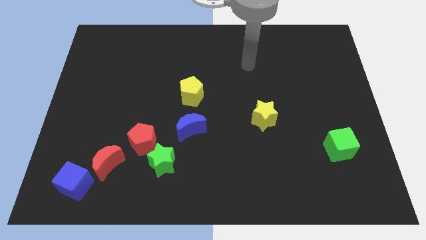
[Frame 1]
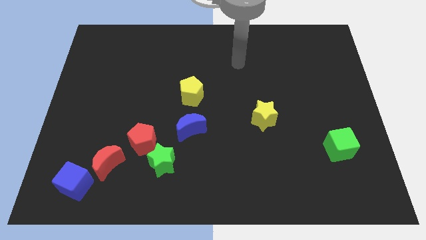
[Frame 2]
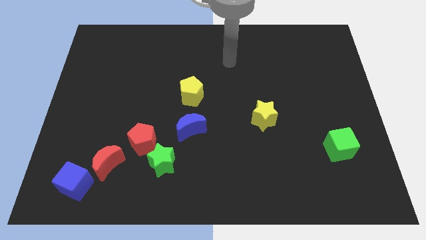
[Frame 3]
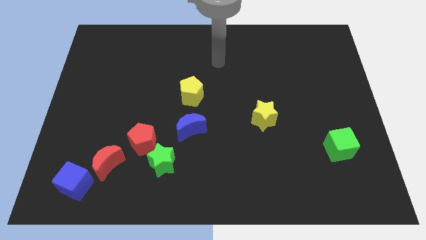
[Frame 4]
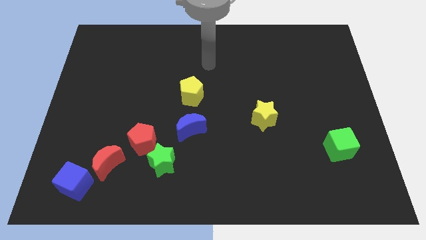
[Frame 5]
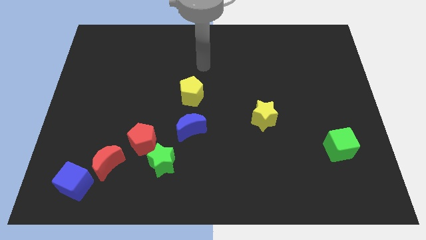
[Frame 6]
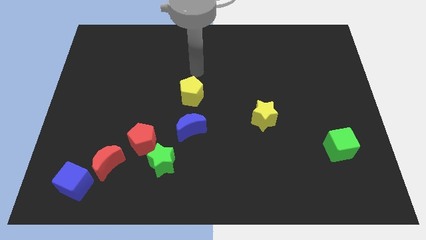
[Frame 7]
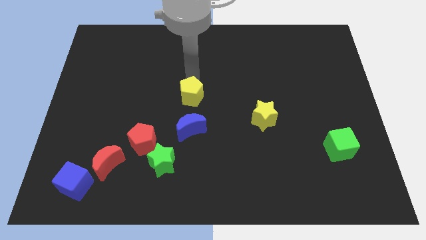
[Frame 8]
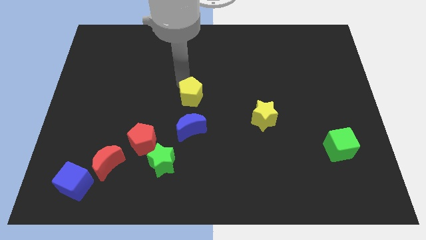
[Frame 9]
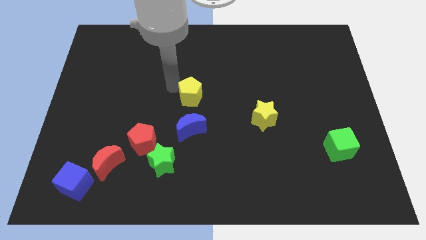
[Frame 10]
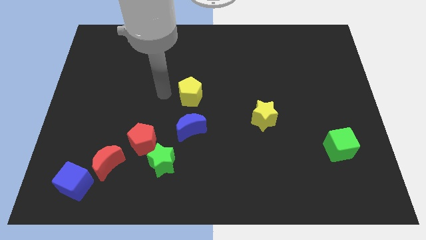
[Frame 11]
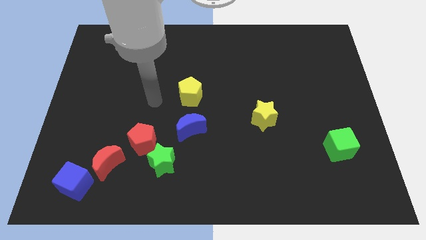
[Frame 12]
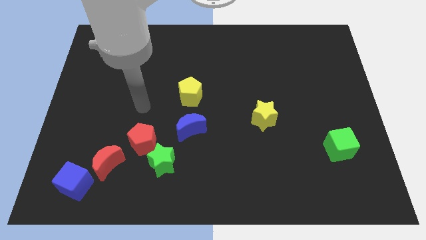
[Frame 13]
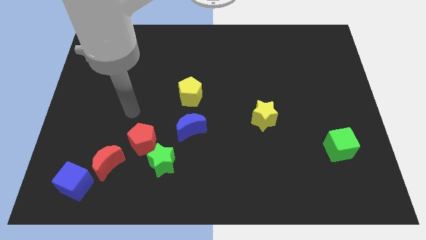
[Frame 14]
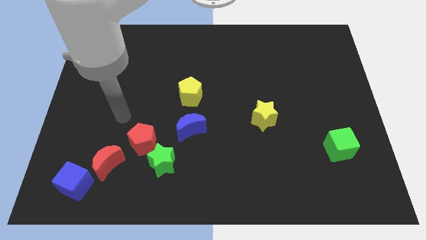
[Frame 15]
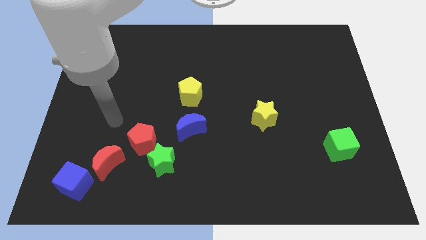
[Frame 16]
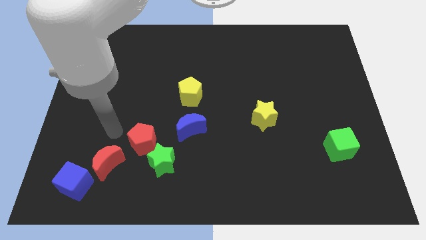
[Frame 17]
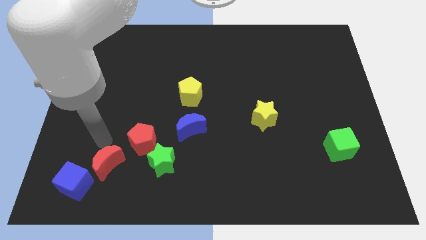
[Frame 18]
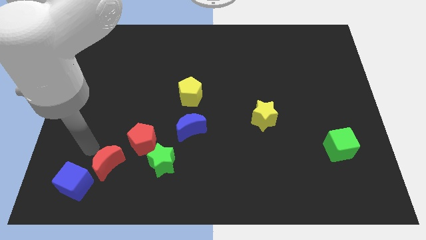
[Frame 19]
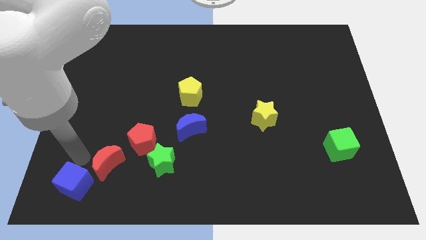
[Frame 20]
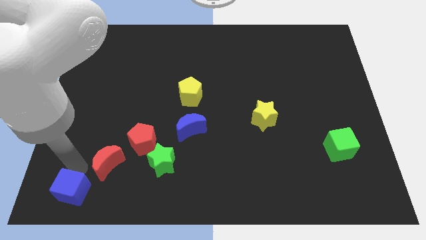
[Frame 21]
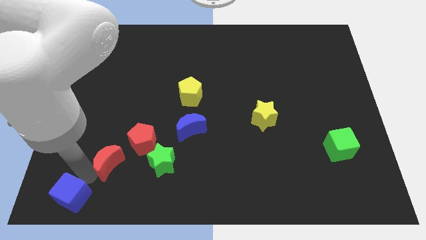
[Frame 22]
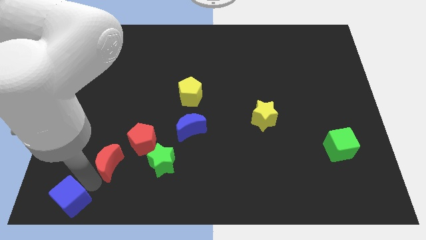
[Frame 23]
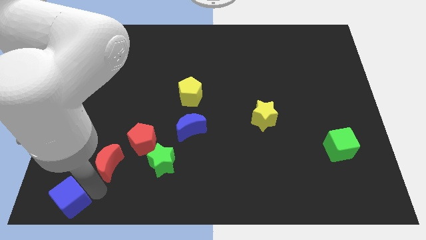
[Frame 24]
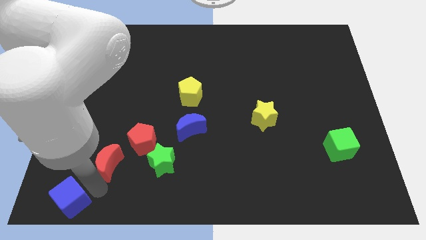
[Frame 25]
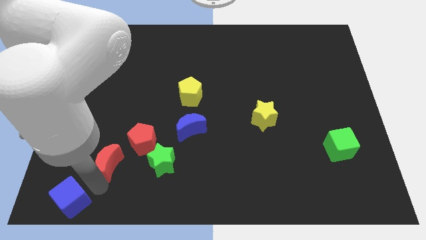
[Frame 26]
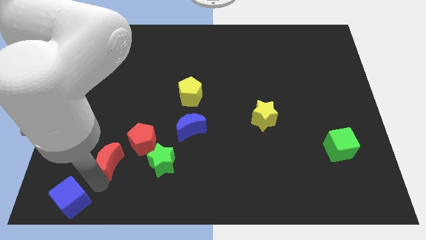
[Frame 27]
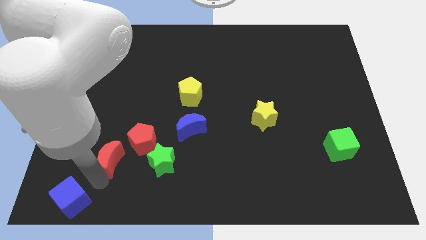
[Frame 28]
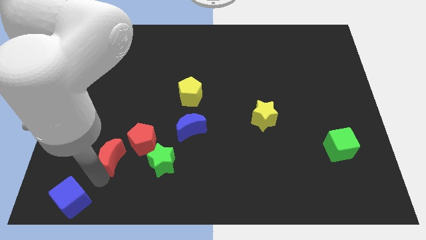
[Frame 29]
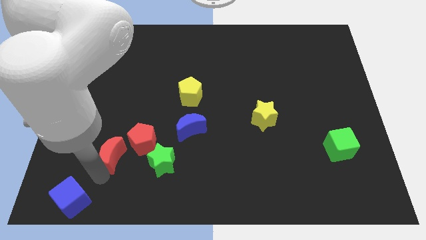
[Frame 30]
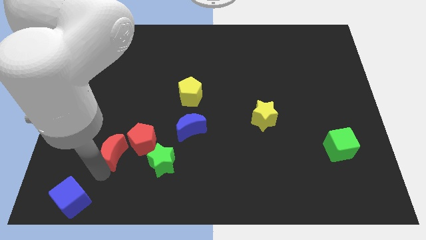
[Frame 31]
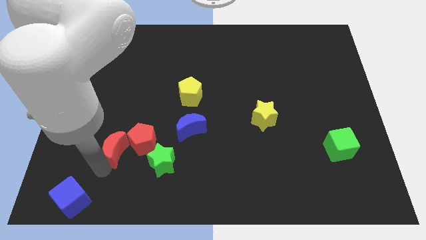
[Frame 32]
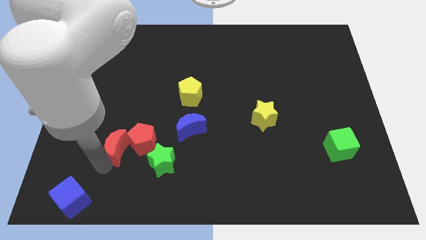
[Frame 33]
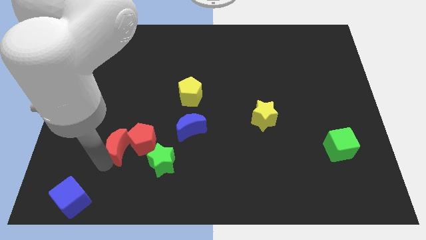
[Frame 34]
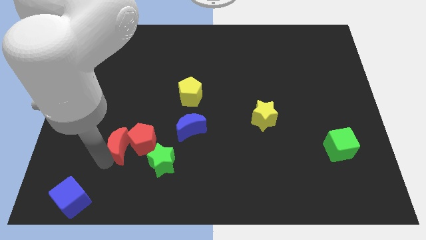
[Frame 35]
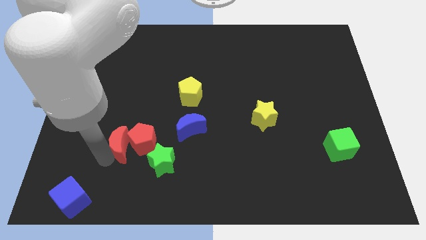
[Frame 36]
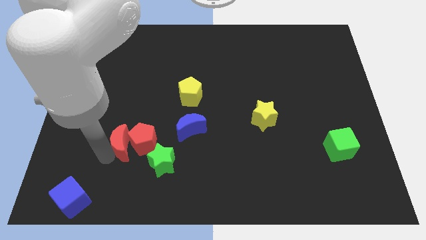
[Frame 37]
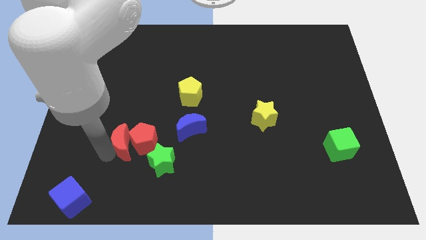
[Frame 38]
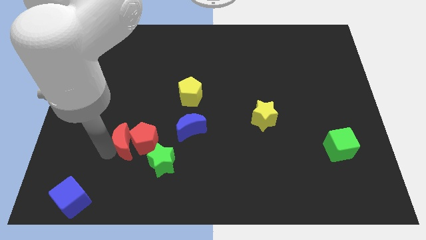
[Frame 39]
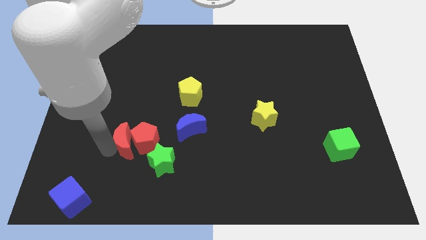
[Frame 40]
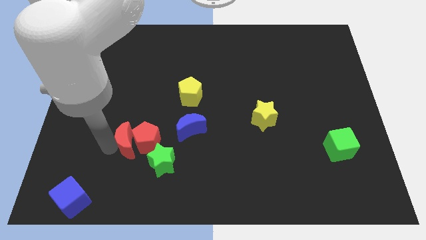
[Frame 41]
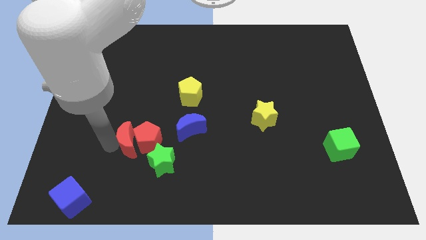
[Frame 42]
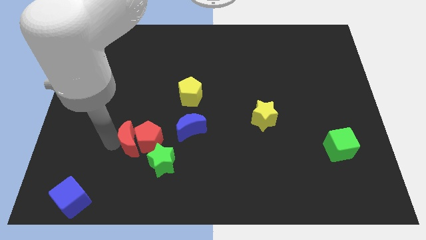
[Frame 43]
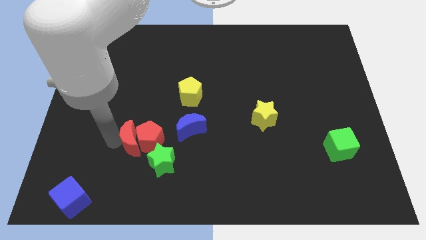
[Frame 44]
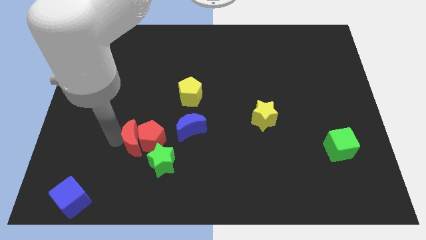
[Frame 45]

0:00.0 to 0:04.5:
move the red moon a little diagonally up and to the right

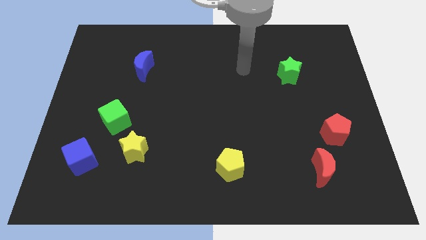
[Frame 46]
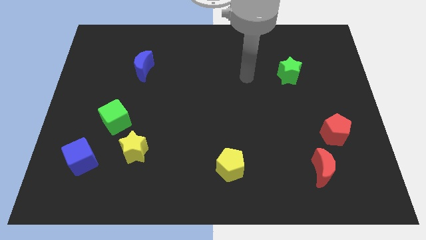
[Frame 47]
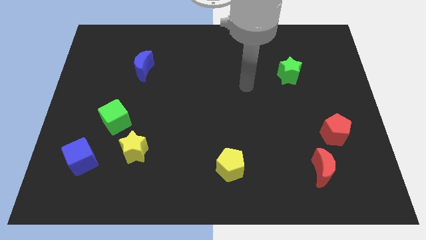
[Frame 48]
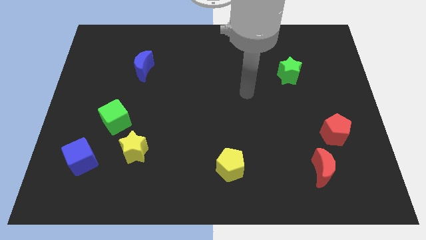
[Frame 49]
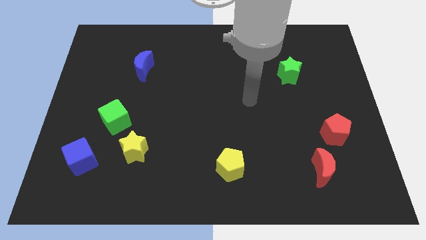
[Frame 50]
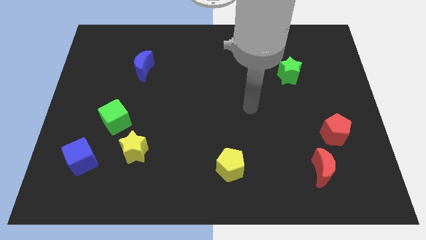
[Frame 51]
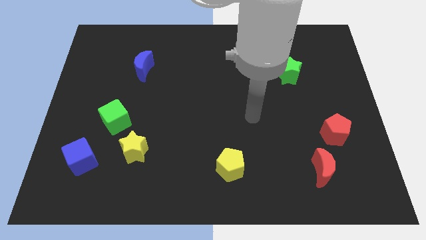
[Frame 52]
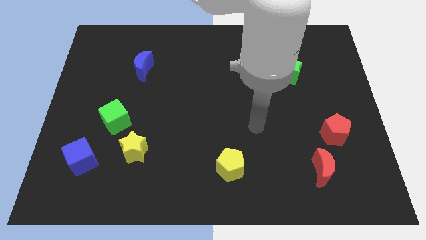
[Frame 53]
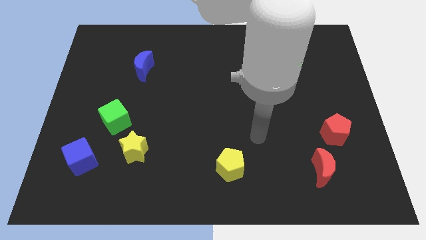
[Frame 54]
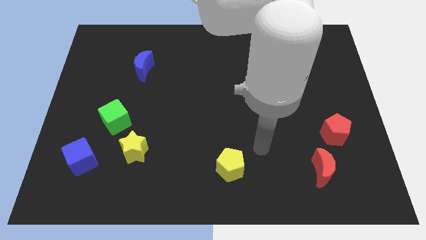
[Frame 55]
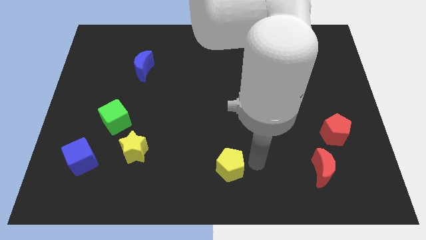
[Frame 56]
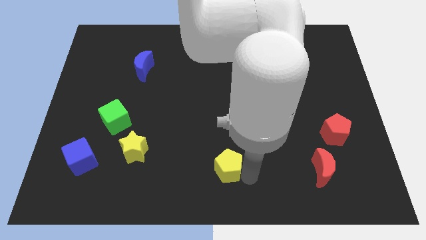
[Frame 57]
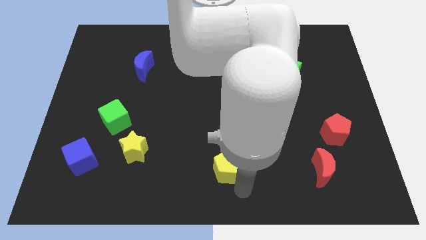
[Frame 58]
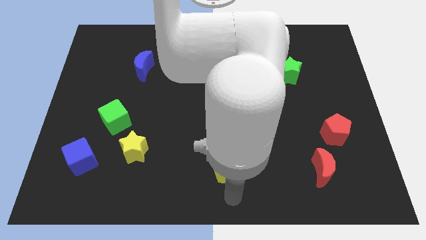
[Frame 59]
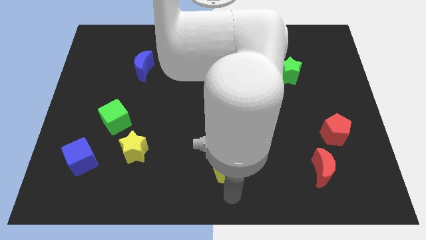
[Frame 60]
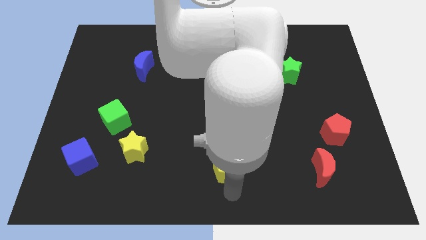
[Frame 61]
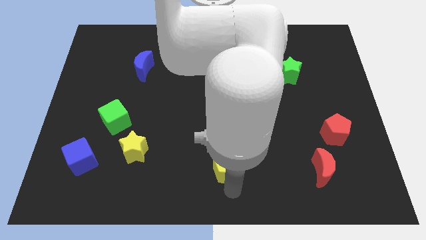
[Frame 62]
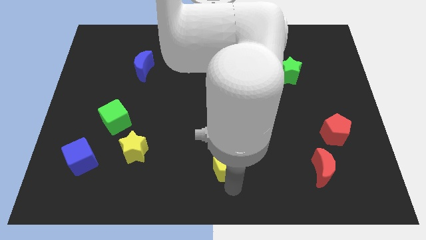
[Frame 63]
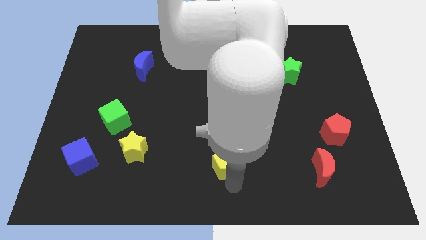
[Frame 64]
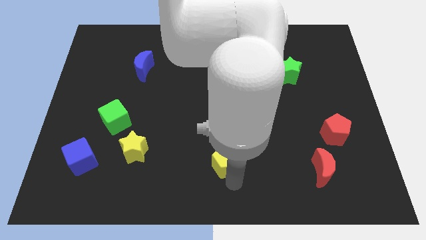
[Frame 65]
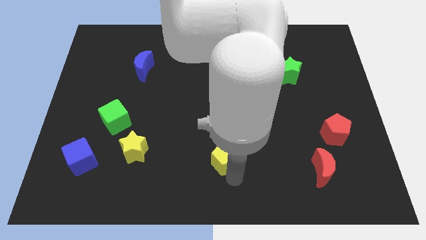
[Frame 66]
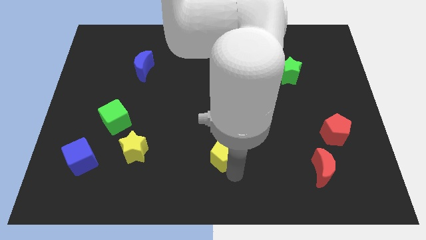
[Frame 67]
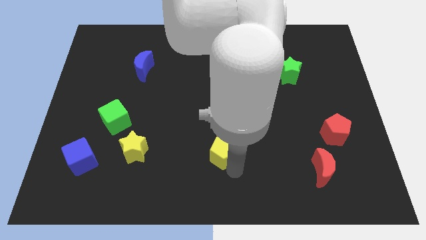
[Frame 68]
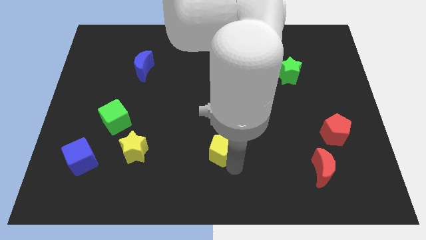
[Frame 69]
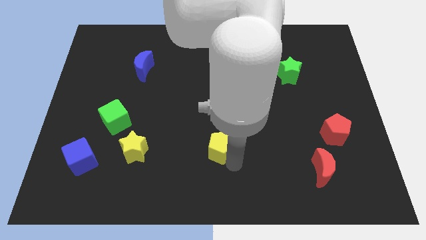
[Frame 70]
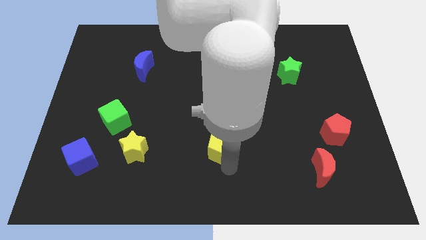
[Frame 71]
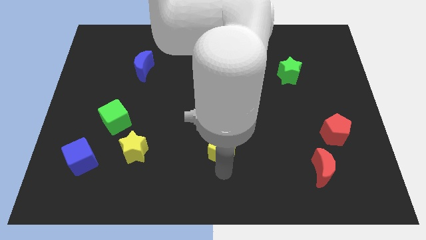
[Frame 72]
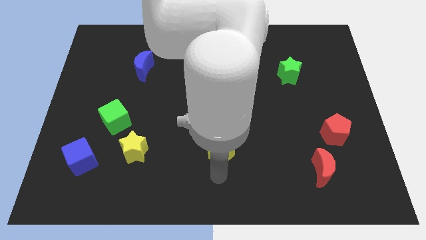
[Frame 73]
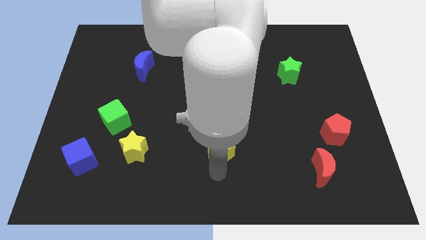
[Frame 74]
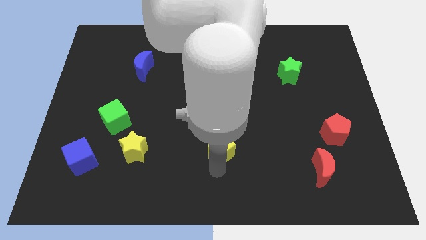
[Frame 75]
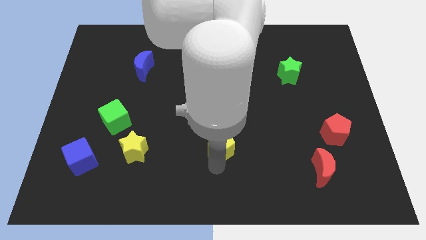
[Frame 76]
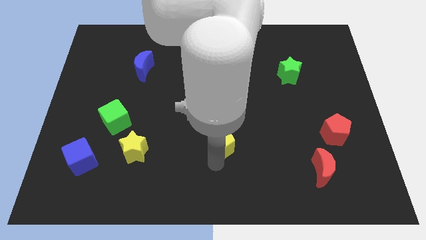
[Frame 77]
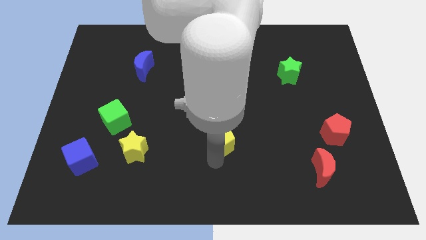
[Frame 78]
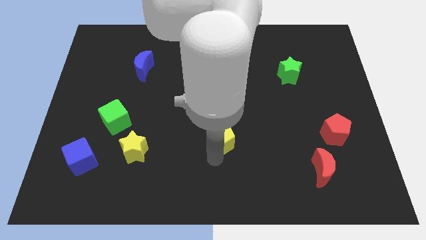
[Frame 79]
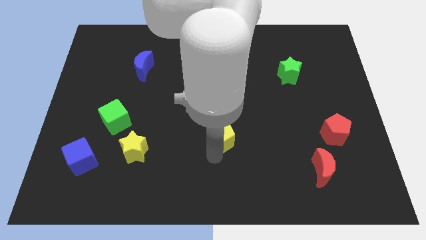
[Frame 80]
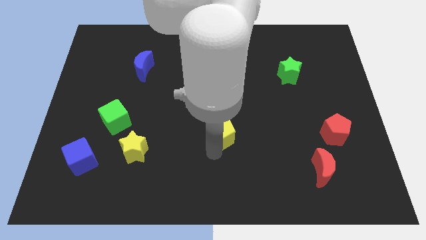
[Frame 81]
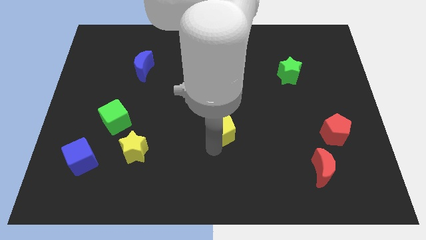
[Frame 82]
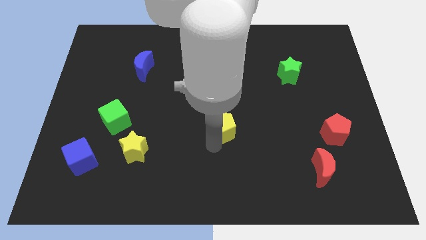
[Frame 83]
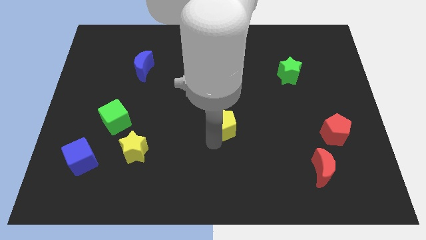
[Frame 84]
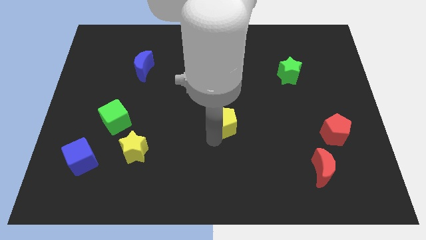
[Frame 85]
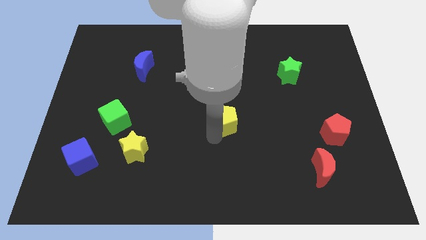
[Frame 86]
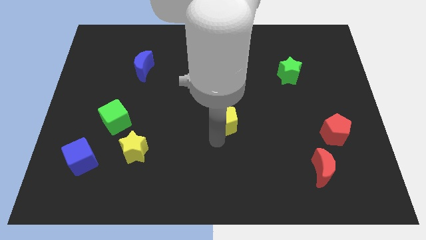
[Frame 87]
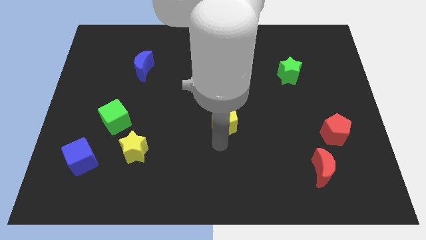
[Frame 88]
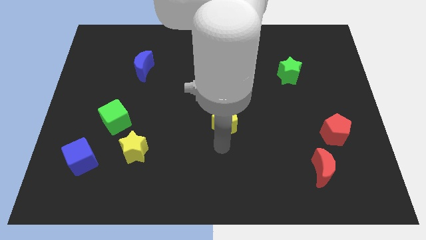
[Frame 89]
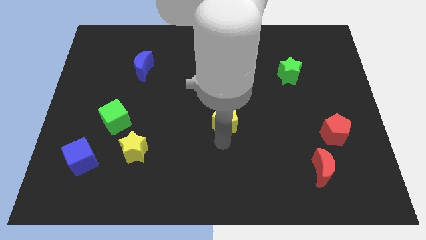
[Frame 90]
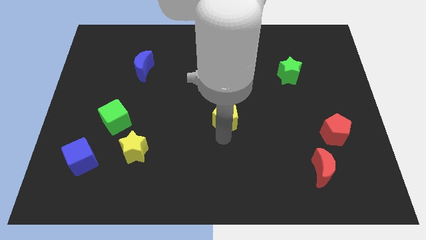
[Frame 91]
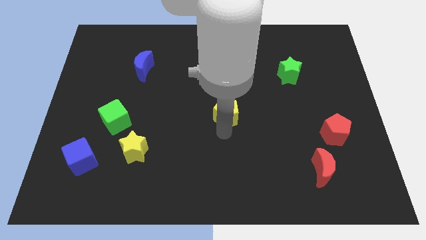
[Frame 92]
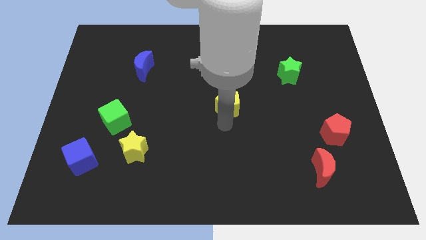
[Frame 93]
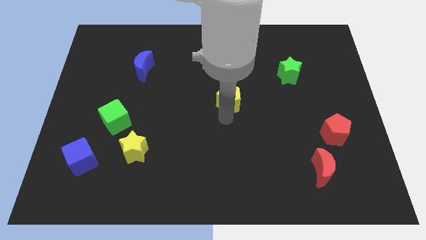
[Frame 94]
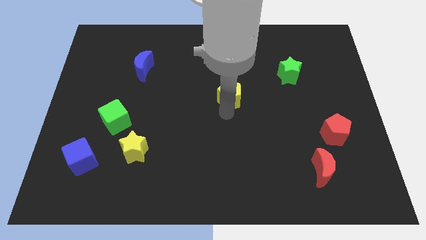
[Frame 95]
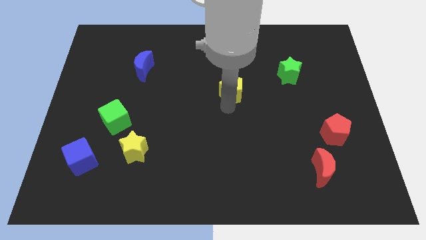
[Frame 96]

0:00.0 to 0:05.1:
slide the yellow pentagon up
